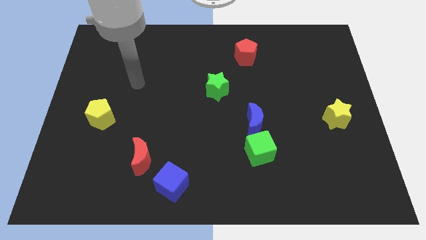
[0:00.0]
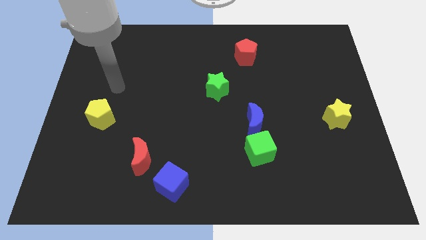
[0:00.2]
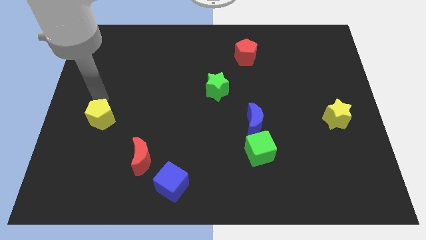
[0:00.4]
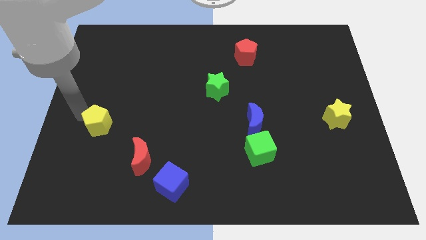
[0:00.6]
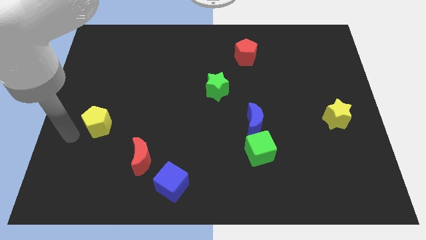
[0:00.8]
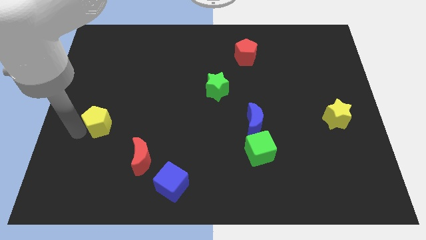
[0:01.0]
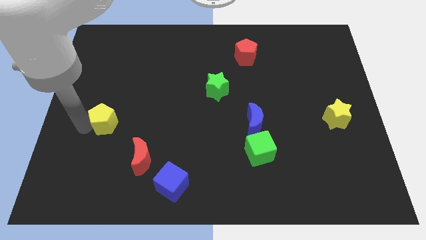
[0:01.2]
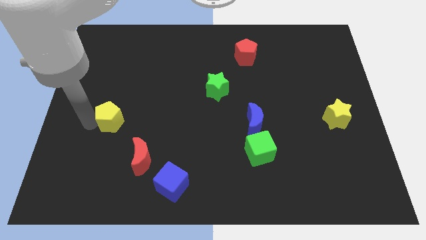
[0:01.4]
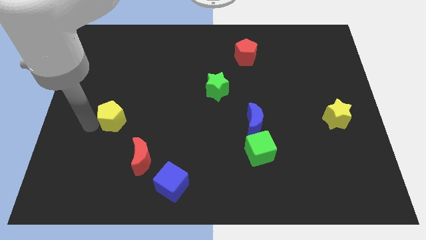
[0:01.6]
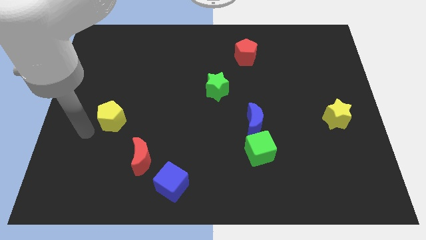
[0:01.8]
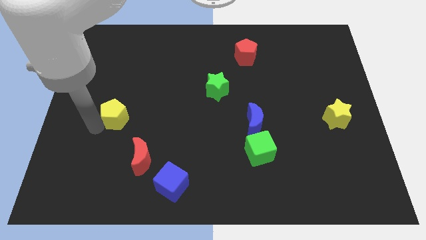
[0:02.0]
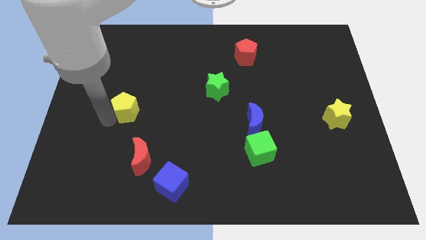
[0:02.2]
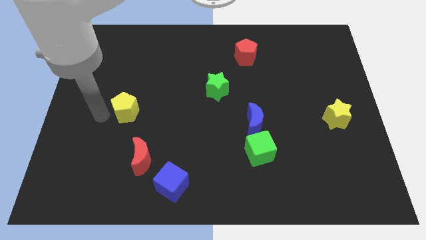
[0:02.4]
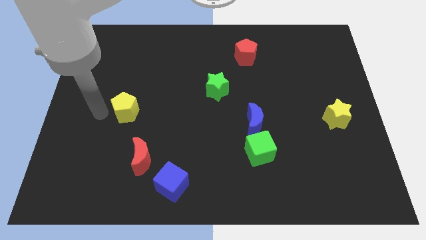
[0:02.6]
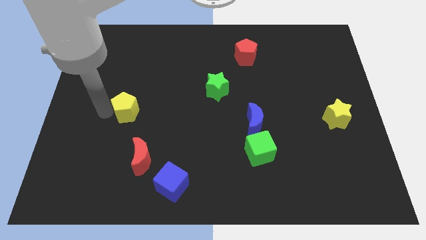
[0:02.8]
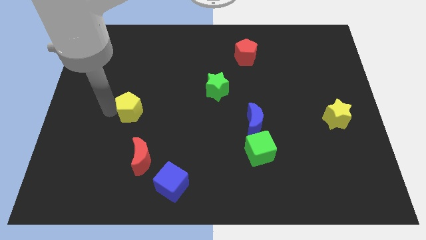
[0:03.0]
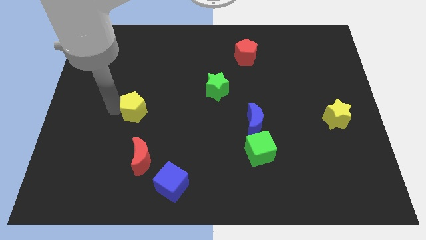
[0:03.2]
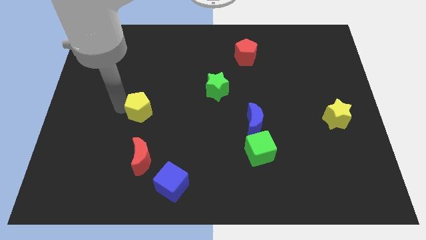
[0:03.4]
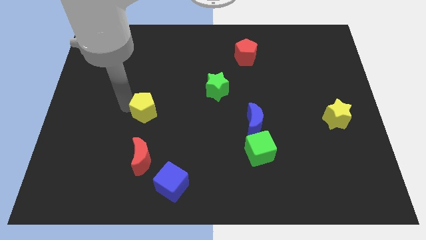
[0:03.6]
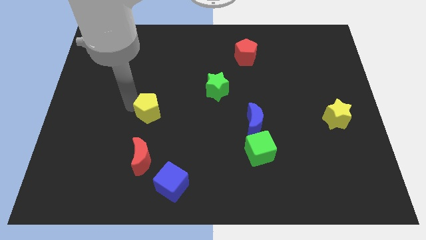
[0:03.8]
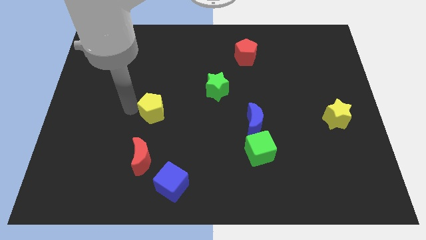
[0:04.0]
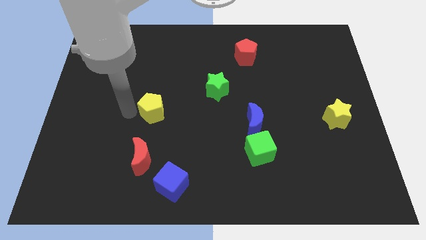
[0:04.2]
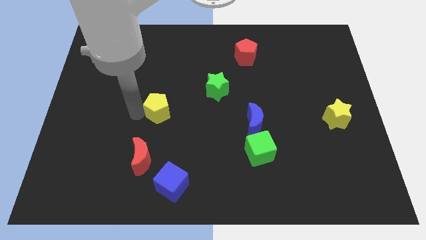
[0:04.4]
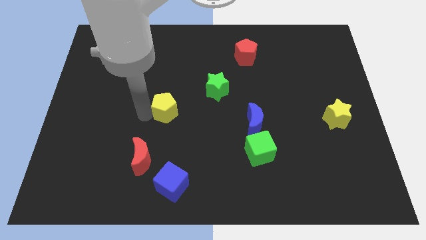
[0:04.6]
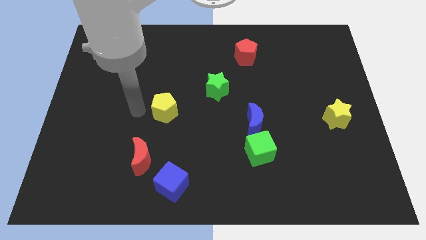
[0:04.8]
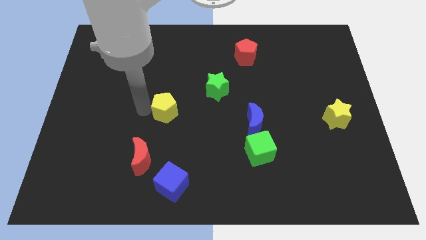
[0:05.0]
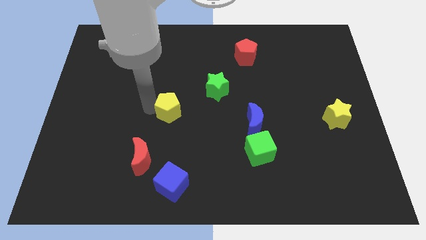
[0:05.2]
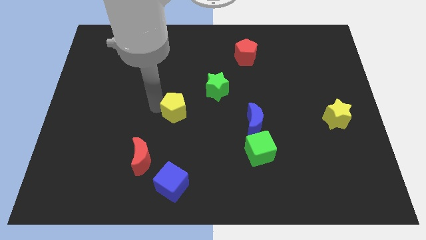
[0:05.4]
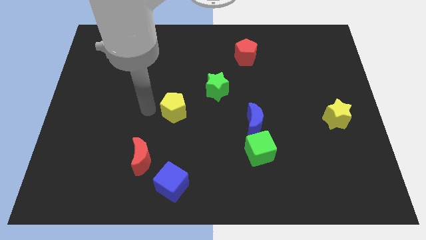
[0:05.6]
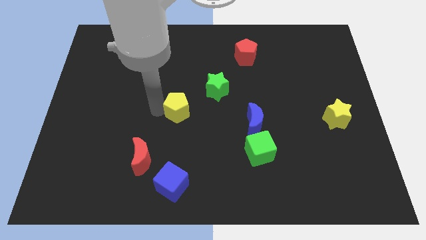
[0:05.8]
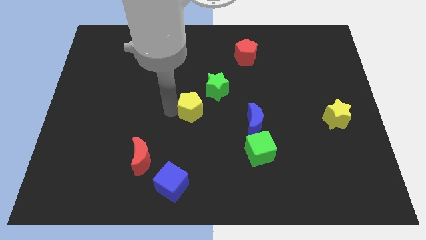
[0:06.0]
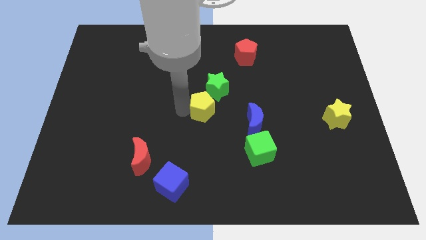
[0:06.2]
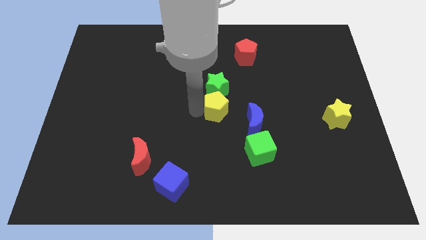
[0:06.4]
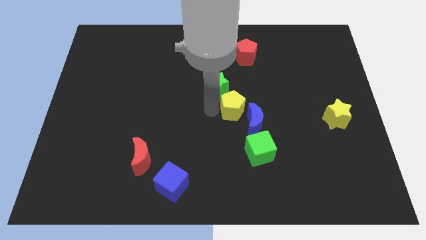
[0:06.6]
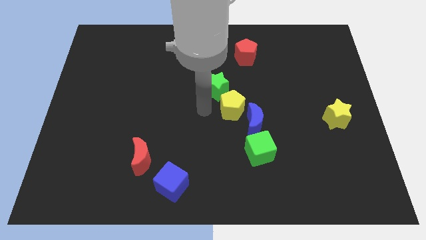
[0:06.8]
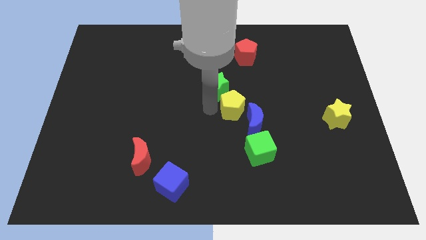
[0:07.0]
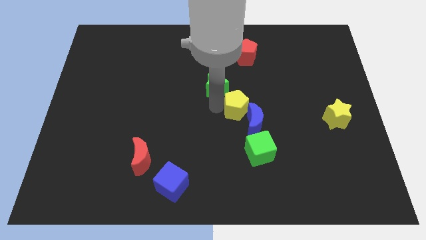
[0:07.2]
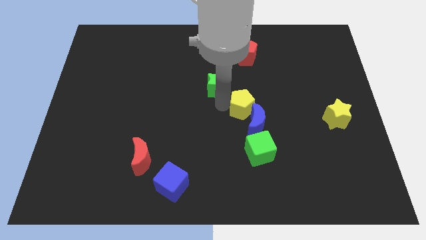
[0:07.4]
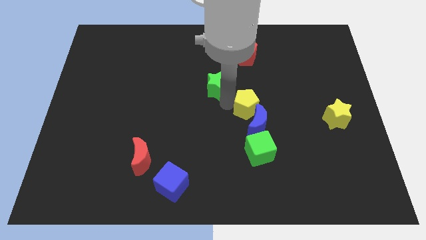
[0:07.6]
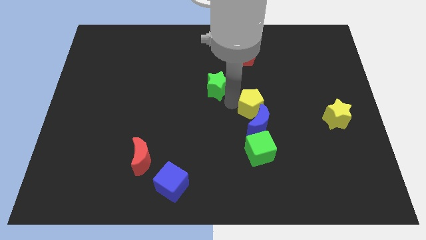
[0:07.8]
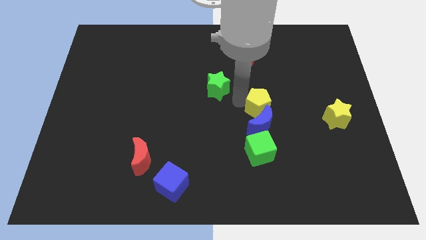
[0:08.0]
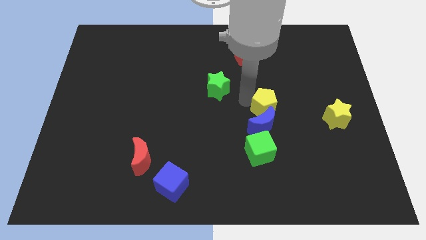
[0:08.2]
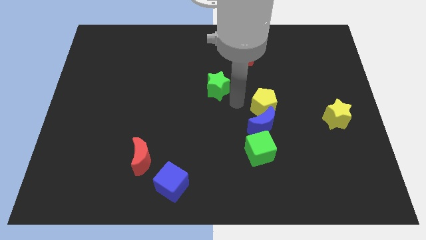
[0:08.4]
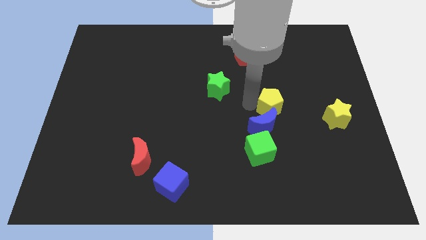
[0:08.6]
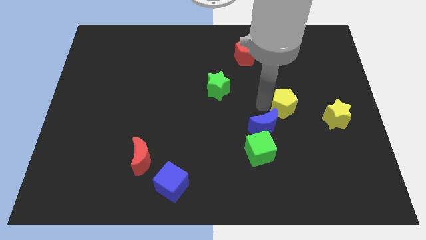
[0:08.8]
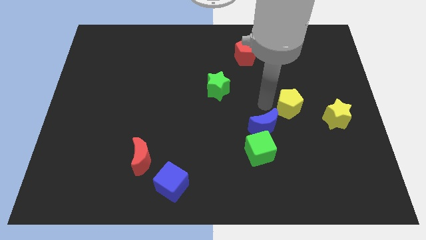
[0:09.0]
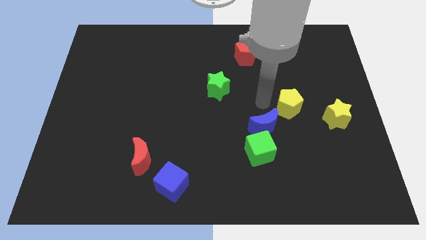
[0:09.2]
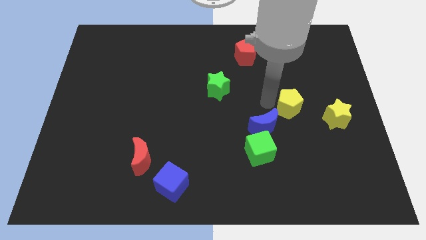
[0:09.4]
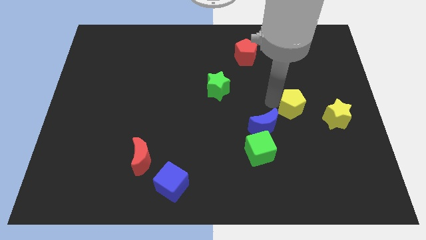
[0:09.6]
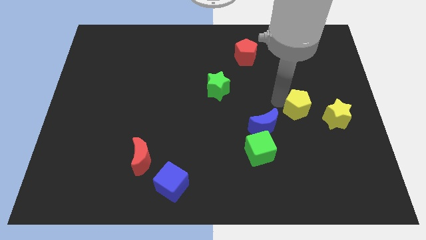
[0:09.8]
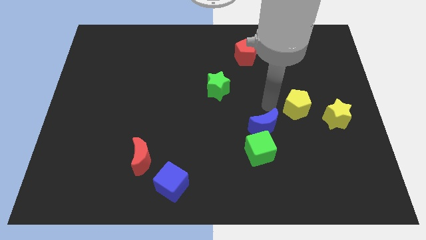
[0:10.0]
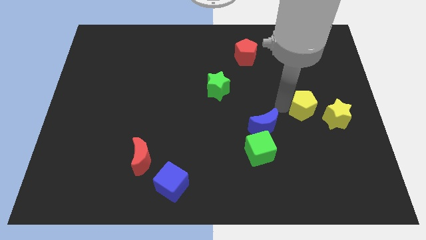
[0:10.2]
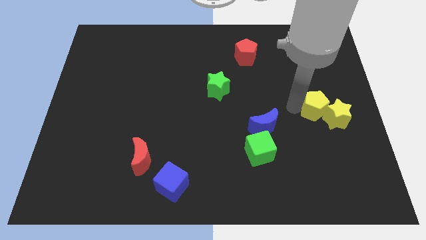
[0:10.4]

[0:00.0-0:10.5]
move the yellow pentagon to the yellow star

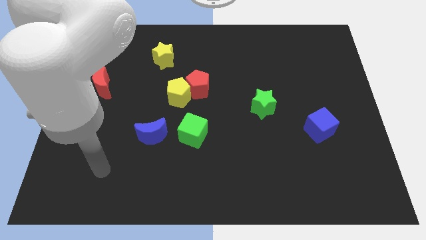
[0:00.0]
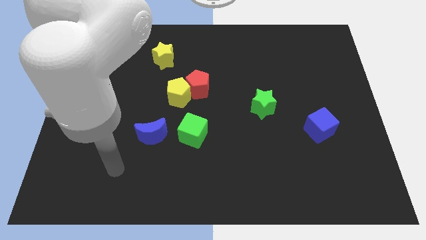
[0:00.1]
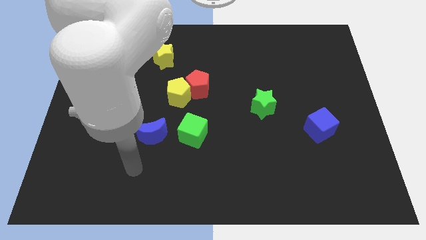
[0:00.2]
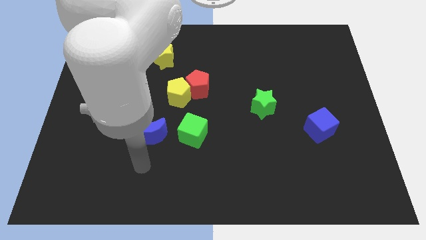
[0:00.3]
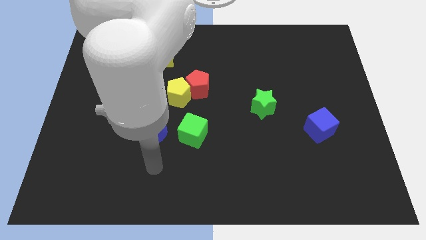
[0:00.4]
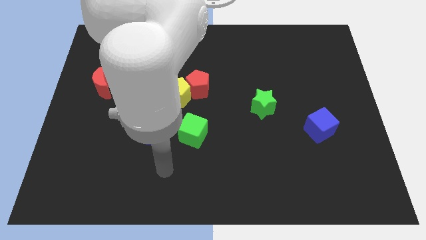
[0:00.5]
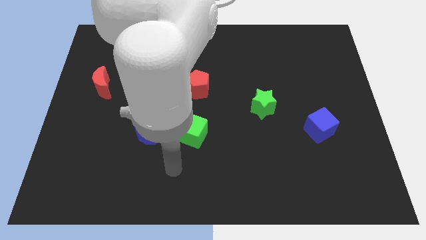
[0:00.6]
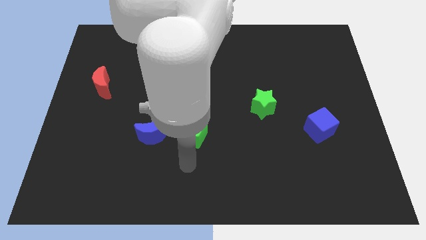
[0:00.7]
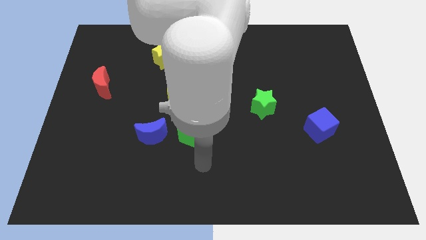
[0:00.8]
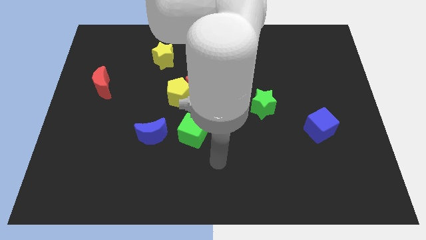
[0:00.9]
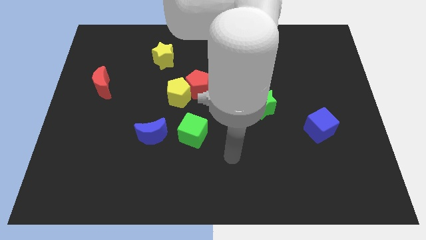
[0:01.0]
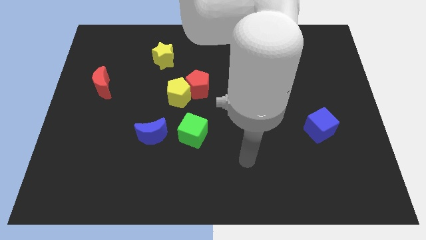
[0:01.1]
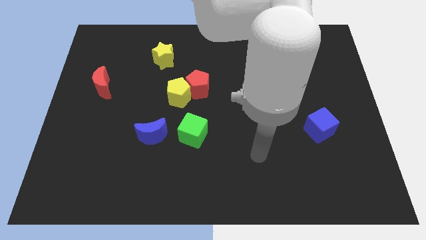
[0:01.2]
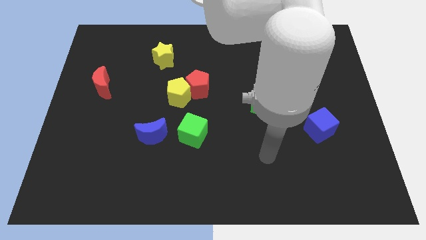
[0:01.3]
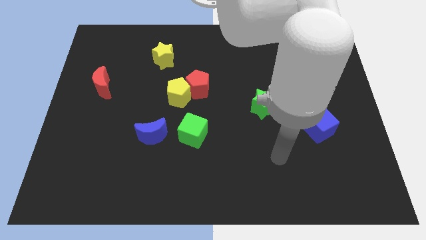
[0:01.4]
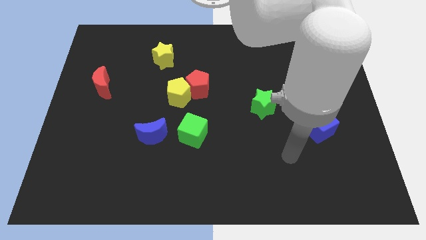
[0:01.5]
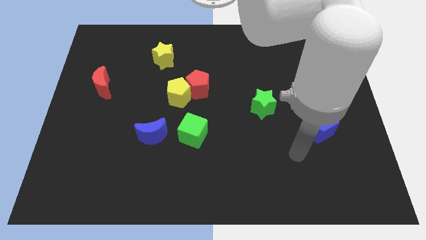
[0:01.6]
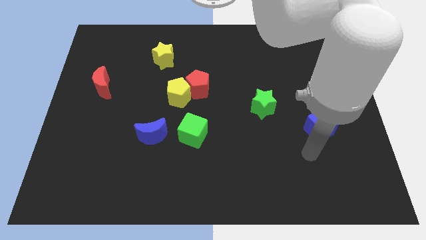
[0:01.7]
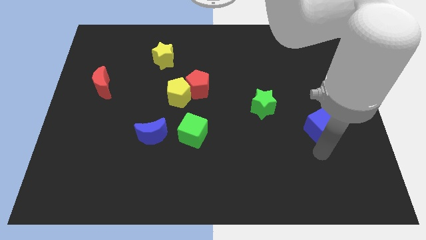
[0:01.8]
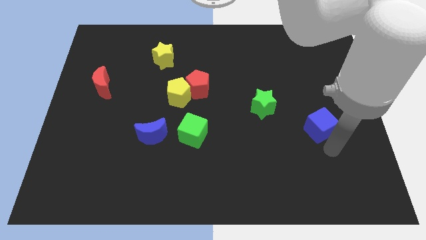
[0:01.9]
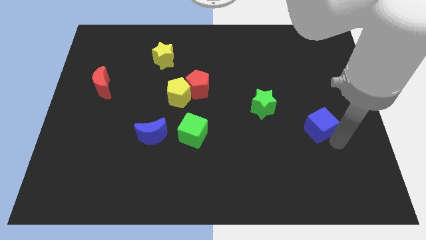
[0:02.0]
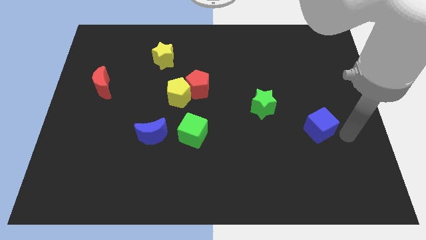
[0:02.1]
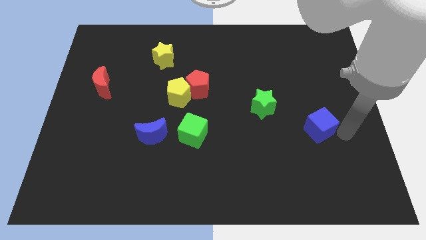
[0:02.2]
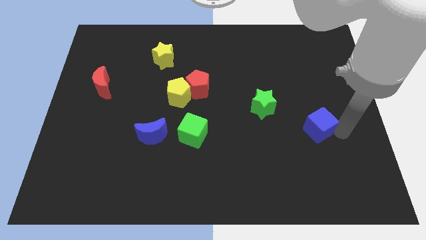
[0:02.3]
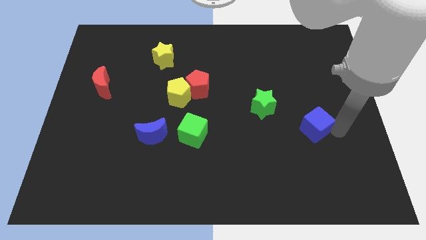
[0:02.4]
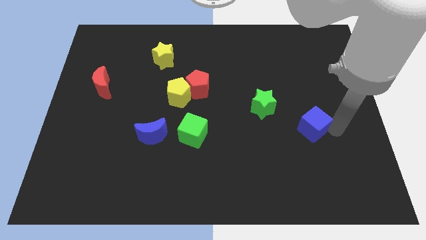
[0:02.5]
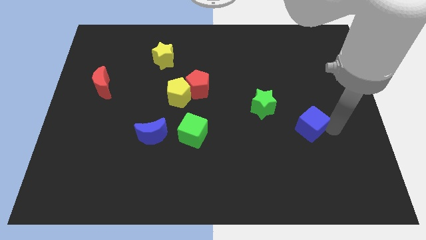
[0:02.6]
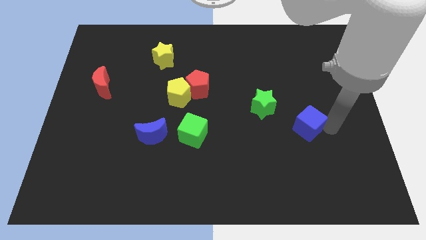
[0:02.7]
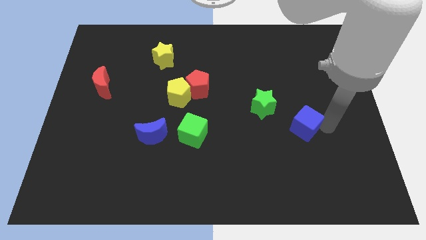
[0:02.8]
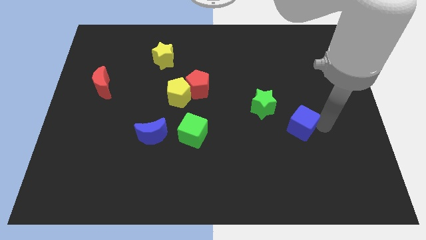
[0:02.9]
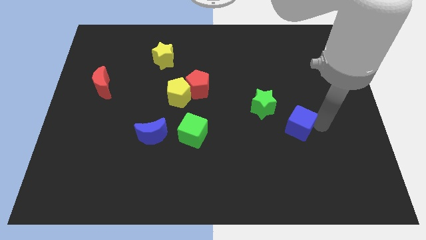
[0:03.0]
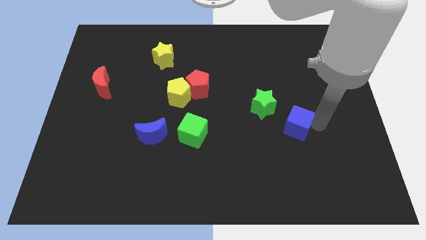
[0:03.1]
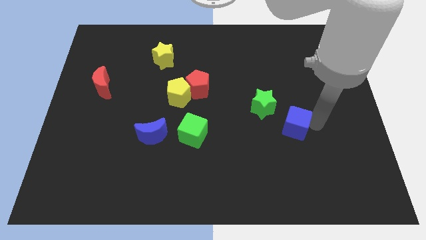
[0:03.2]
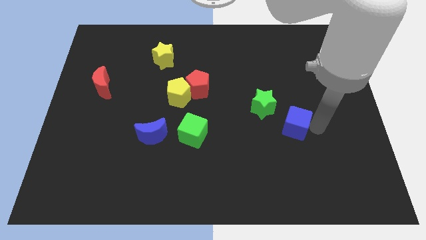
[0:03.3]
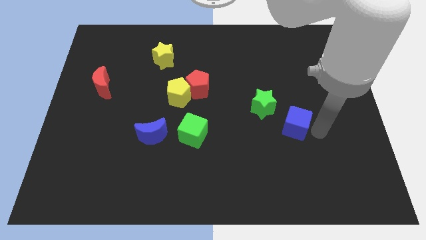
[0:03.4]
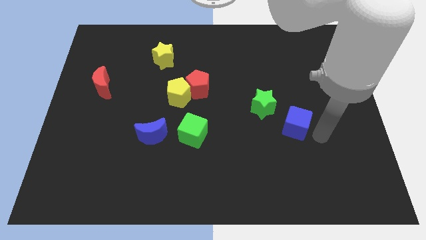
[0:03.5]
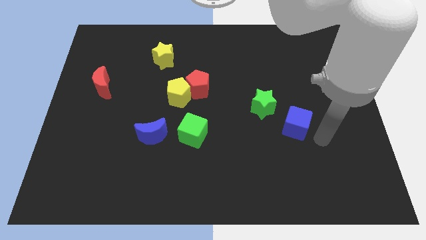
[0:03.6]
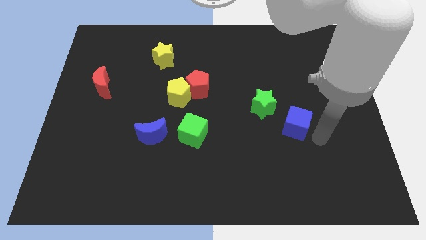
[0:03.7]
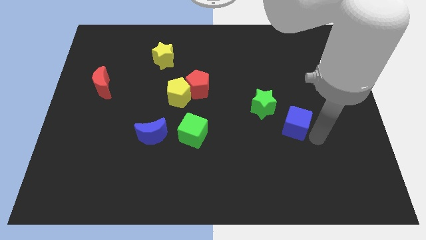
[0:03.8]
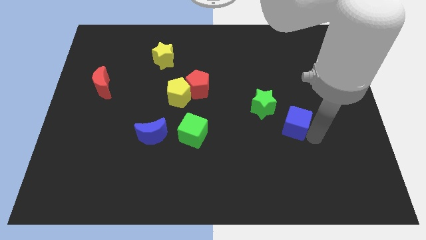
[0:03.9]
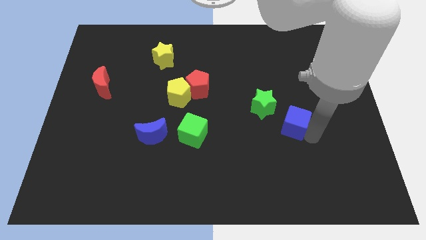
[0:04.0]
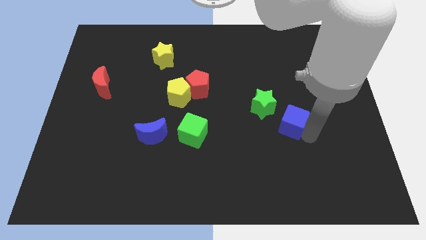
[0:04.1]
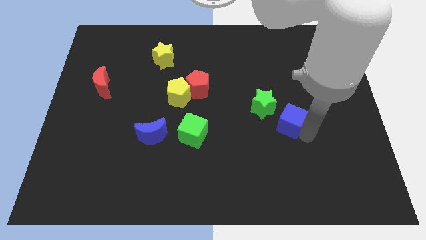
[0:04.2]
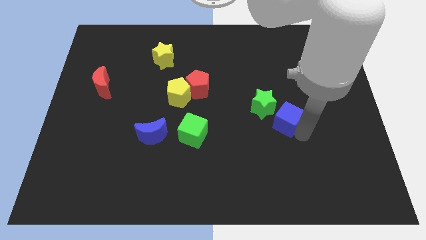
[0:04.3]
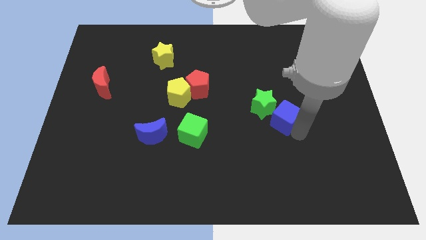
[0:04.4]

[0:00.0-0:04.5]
move the blue cube to the green star
